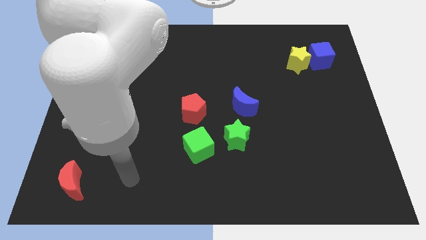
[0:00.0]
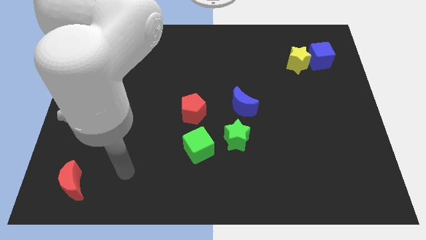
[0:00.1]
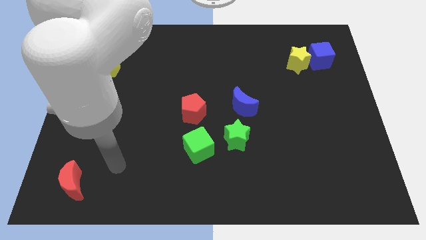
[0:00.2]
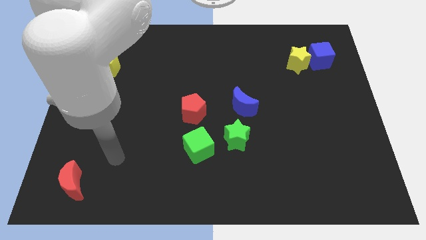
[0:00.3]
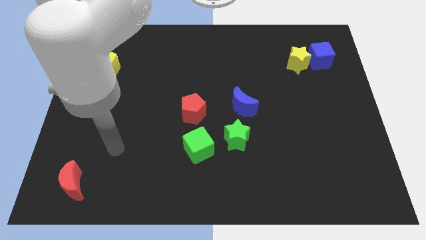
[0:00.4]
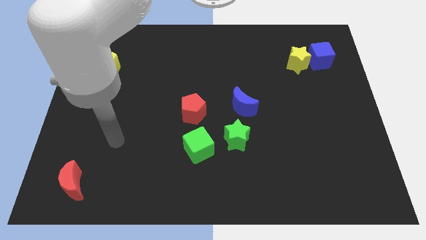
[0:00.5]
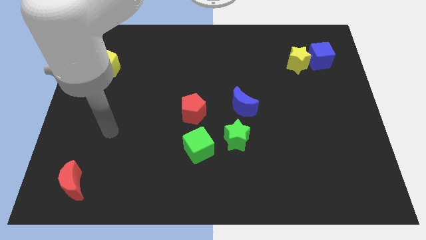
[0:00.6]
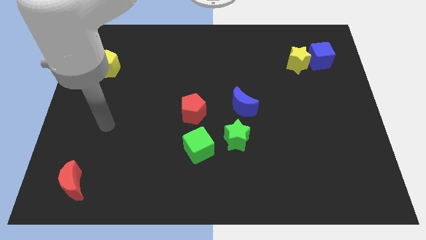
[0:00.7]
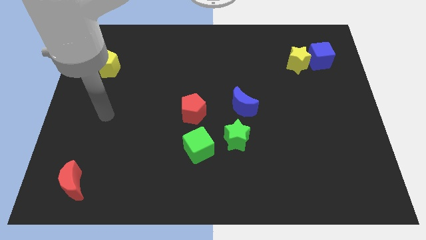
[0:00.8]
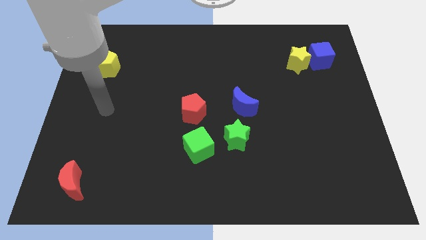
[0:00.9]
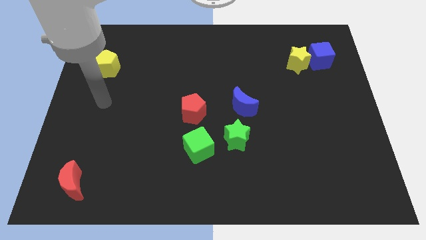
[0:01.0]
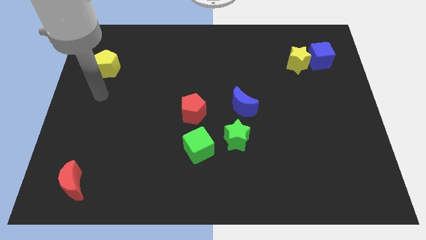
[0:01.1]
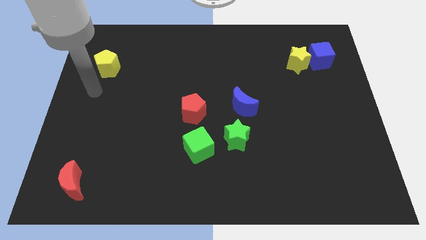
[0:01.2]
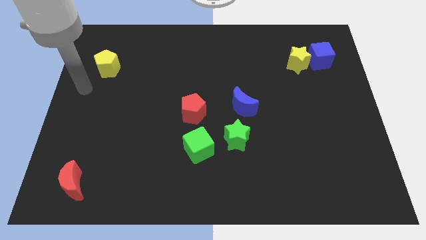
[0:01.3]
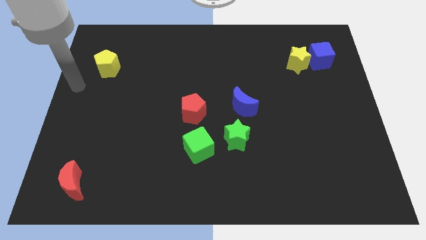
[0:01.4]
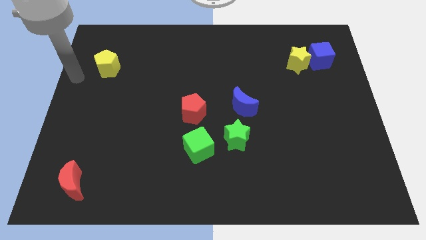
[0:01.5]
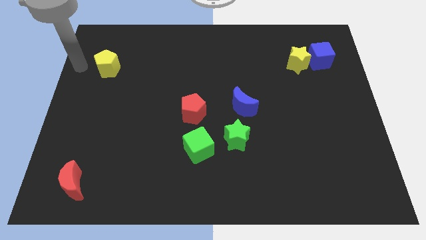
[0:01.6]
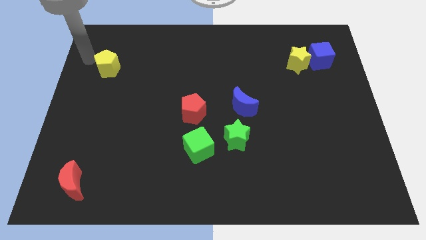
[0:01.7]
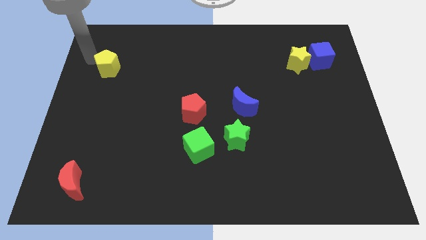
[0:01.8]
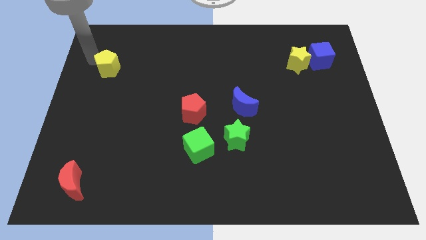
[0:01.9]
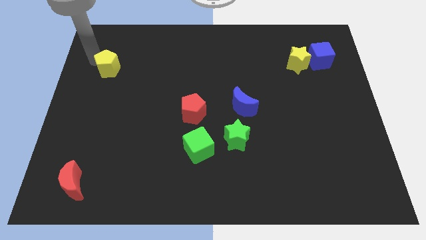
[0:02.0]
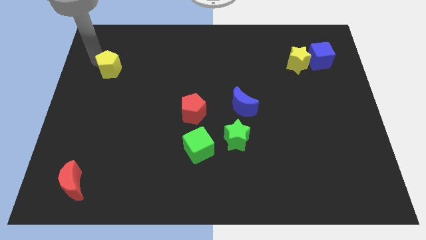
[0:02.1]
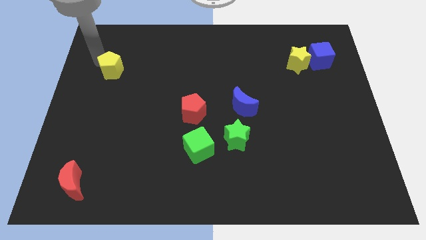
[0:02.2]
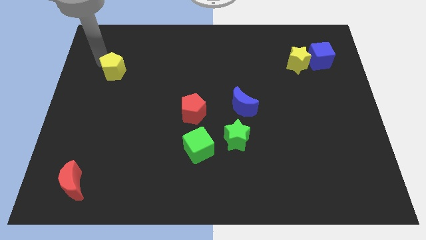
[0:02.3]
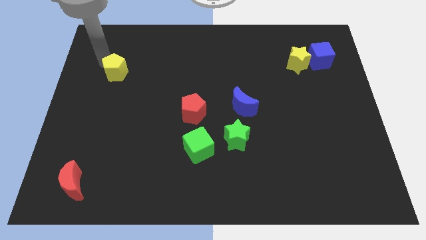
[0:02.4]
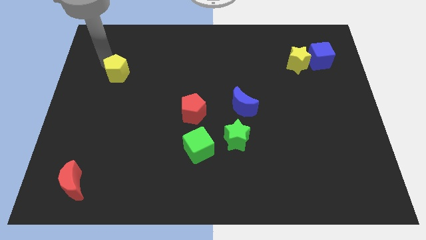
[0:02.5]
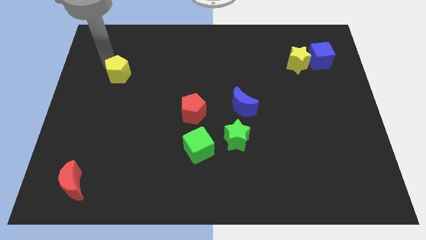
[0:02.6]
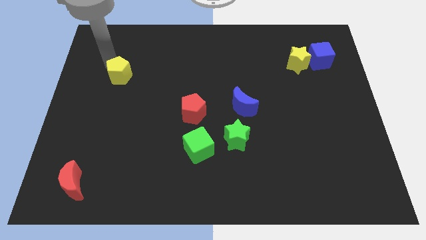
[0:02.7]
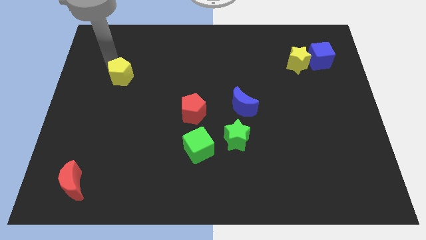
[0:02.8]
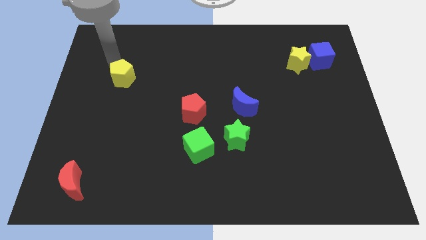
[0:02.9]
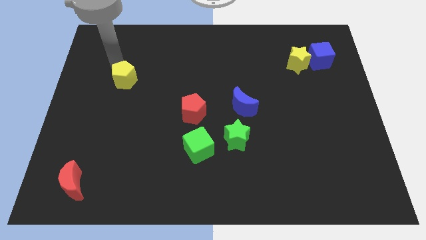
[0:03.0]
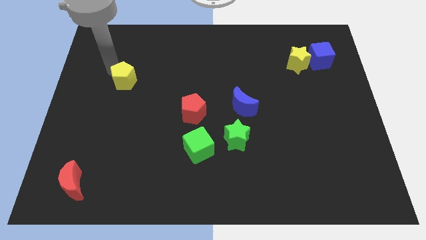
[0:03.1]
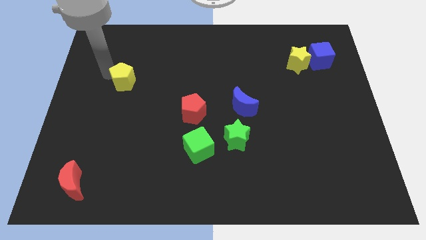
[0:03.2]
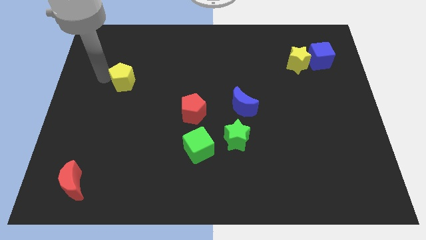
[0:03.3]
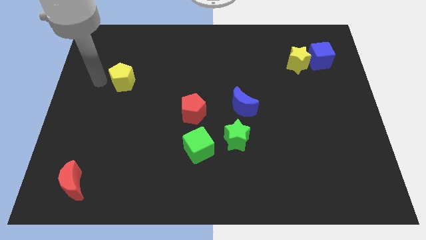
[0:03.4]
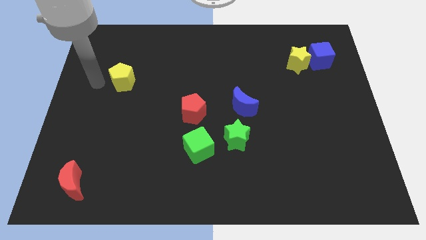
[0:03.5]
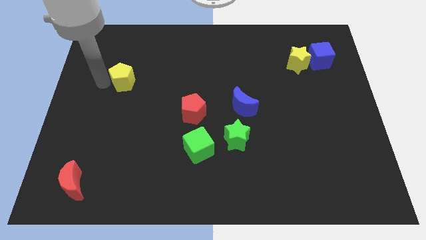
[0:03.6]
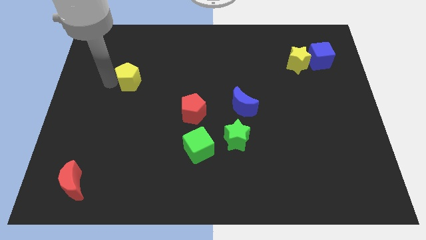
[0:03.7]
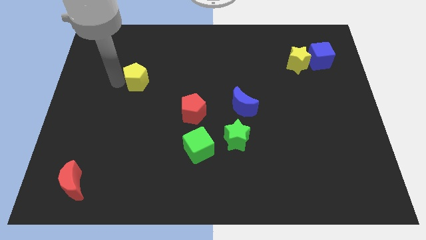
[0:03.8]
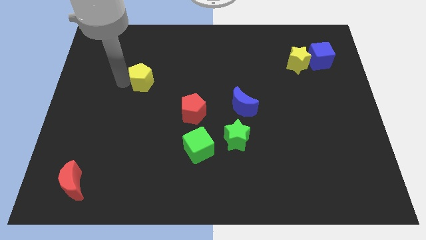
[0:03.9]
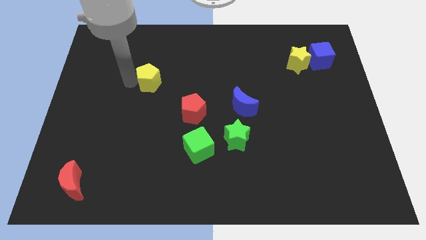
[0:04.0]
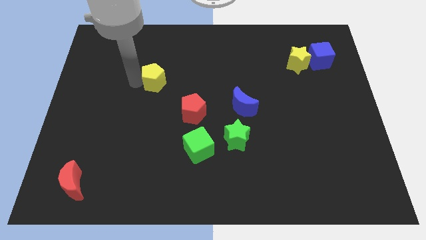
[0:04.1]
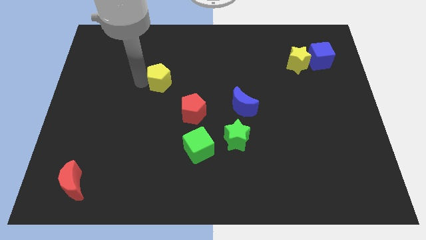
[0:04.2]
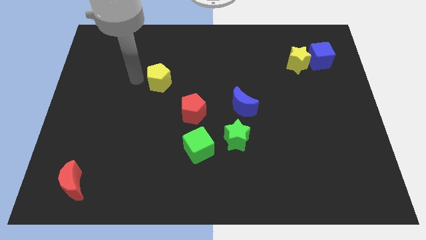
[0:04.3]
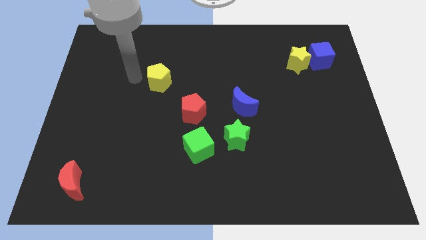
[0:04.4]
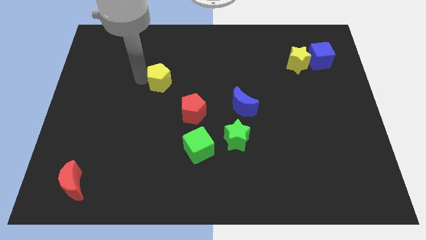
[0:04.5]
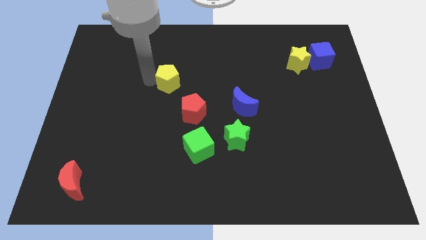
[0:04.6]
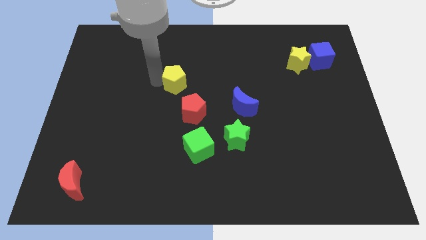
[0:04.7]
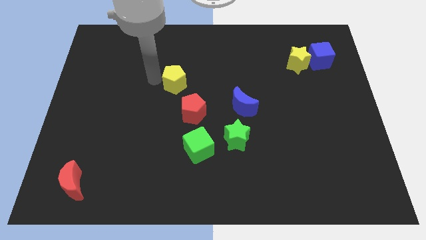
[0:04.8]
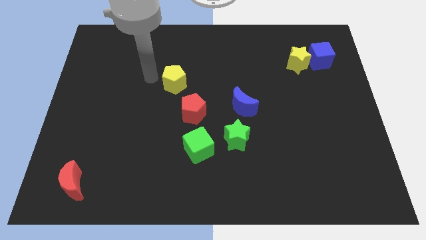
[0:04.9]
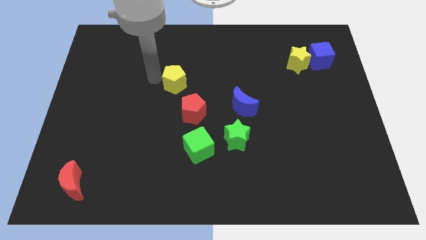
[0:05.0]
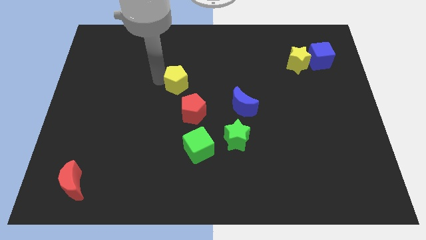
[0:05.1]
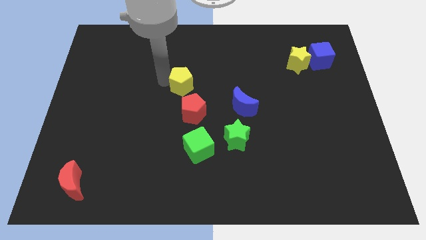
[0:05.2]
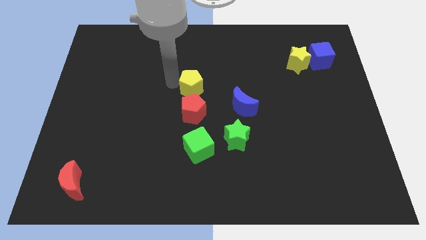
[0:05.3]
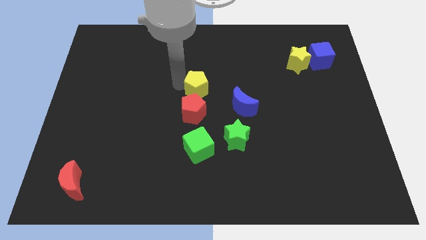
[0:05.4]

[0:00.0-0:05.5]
put the yellow pentagon to the top right side of the red pentagon

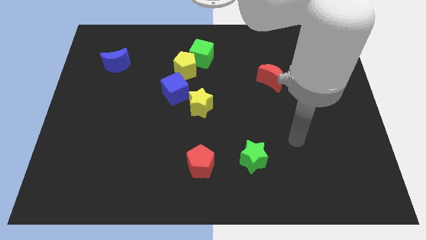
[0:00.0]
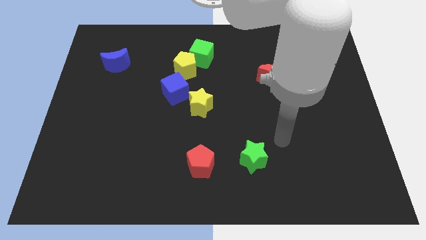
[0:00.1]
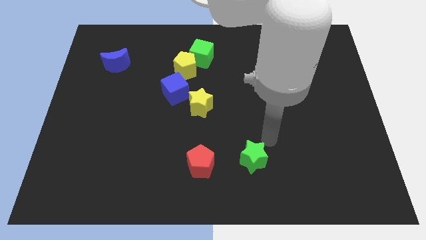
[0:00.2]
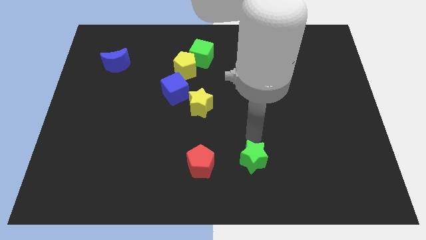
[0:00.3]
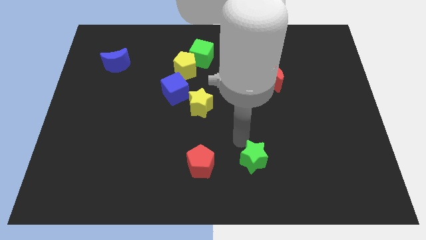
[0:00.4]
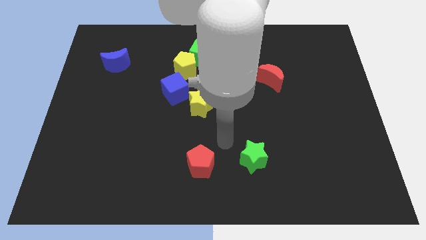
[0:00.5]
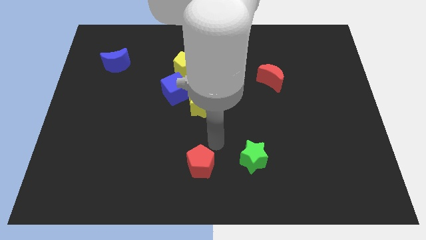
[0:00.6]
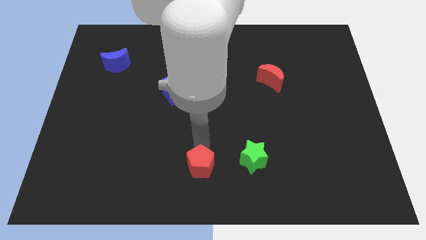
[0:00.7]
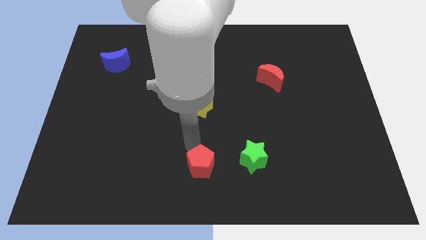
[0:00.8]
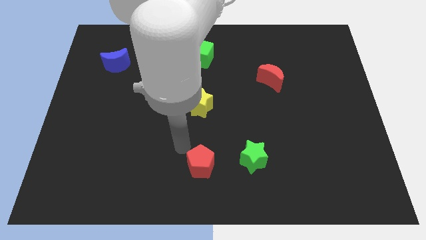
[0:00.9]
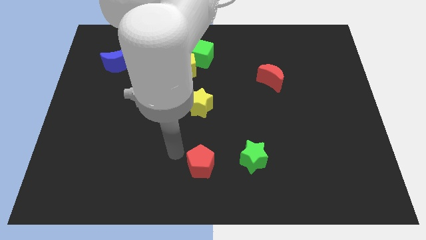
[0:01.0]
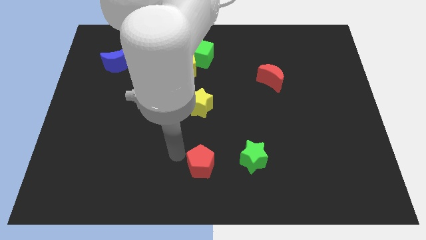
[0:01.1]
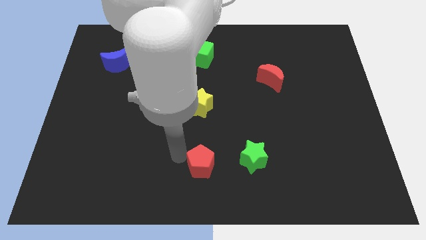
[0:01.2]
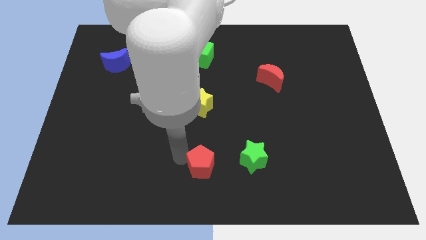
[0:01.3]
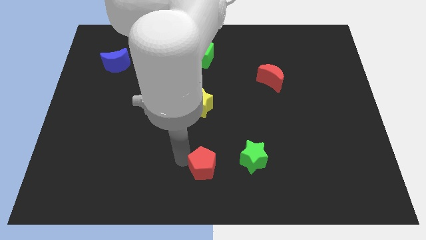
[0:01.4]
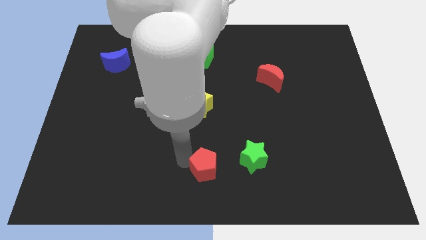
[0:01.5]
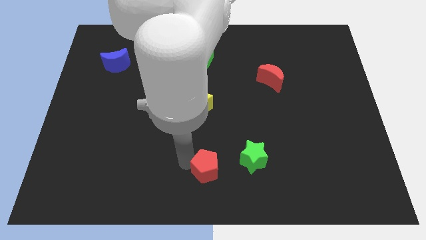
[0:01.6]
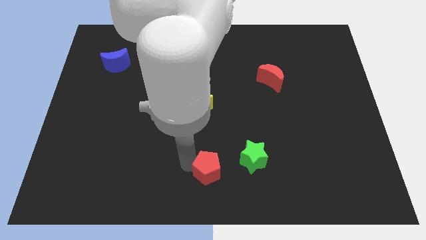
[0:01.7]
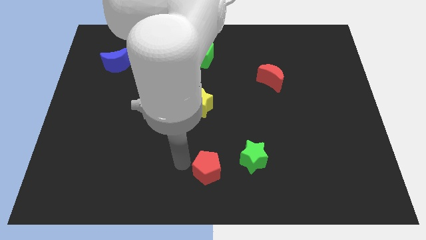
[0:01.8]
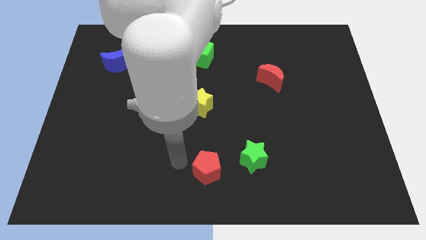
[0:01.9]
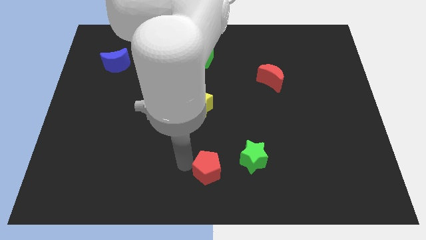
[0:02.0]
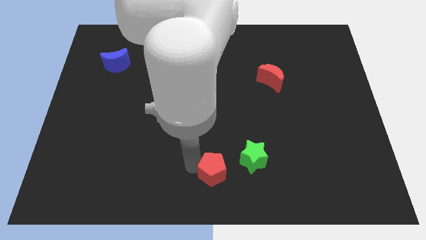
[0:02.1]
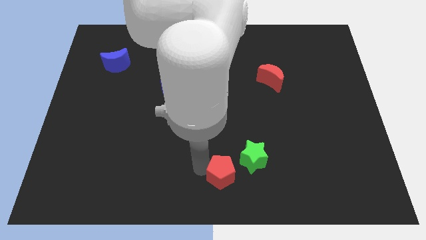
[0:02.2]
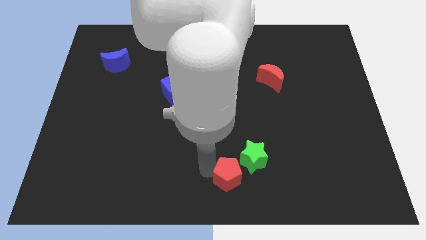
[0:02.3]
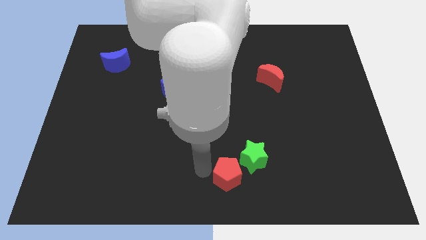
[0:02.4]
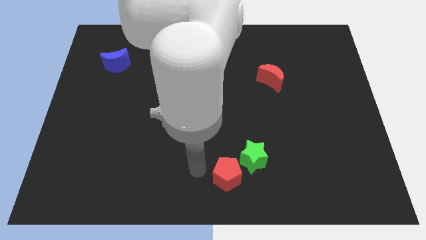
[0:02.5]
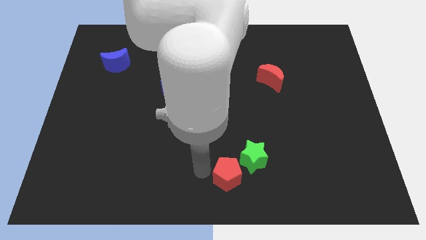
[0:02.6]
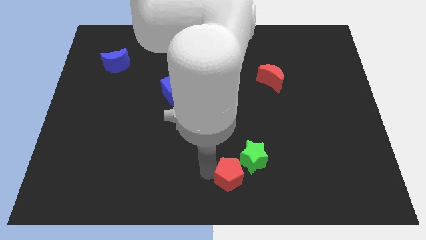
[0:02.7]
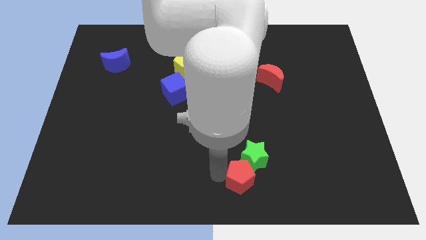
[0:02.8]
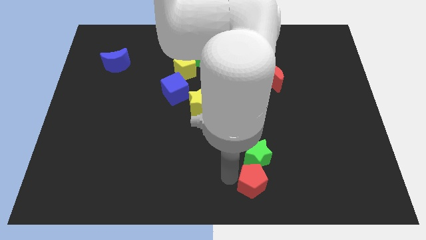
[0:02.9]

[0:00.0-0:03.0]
put the red pentagon to the bottom right of the green star
